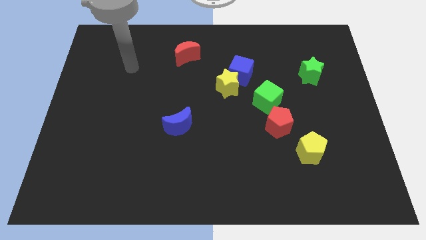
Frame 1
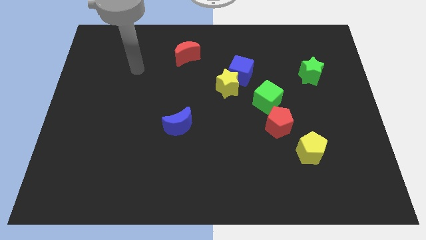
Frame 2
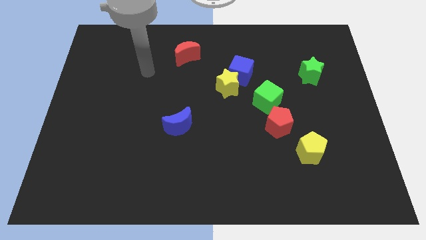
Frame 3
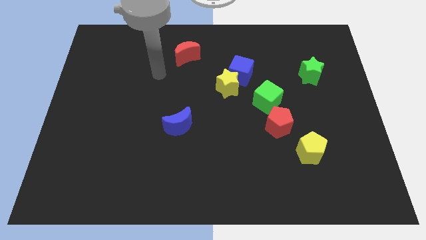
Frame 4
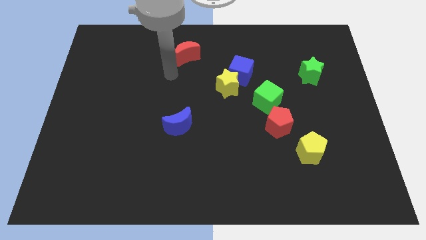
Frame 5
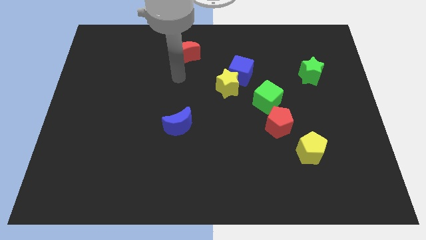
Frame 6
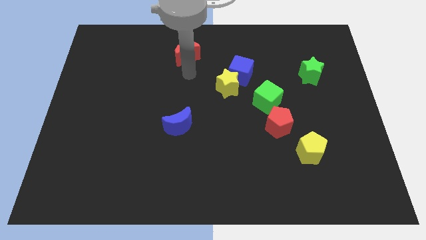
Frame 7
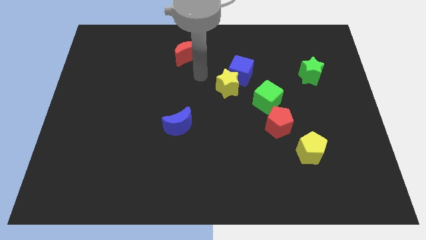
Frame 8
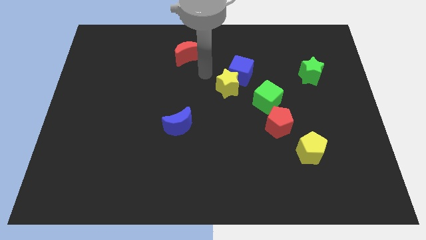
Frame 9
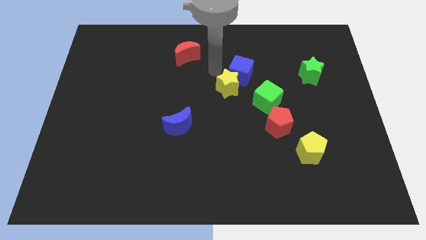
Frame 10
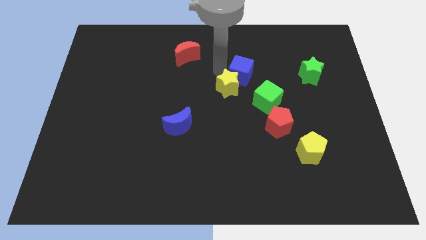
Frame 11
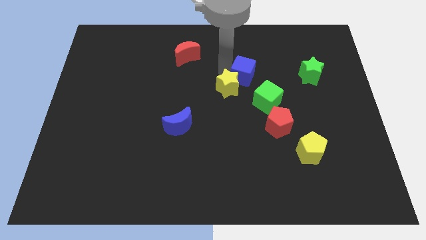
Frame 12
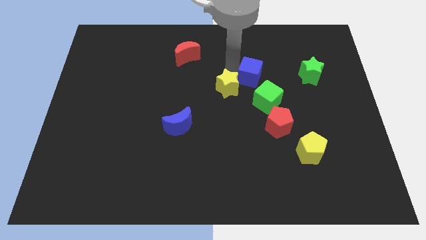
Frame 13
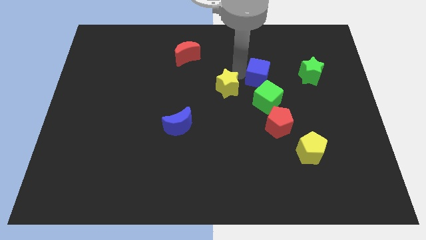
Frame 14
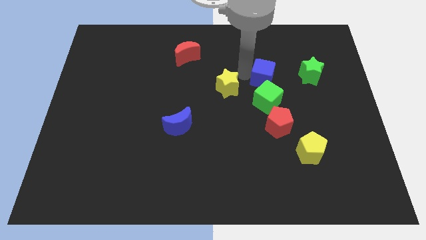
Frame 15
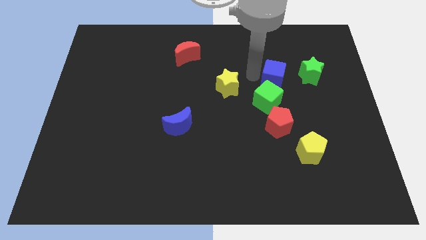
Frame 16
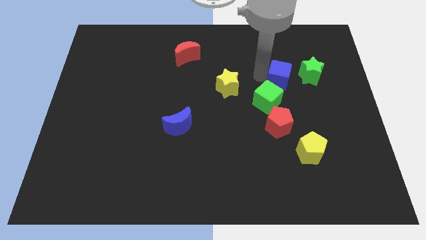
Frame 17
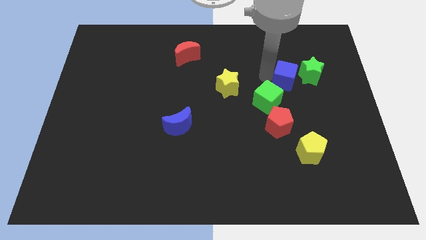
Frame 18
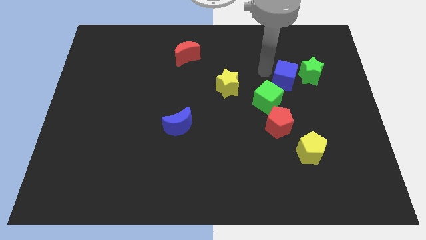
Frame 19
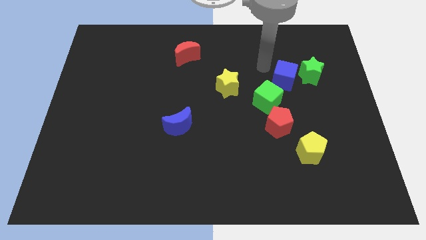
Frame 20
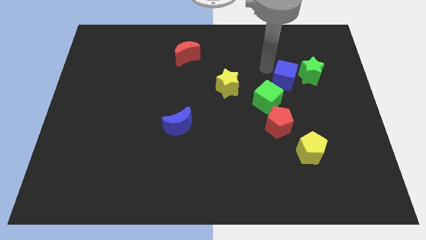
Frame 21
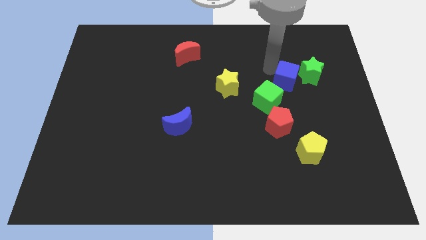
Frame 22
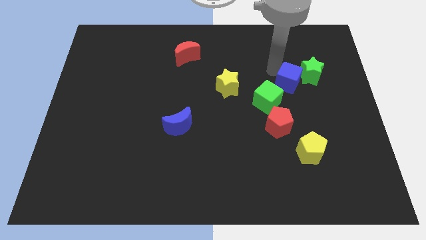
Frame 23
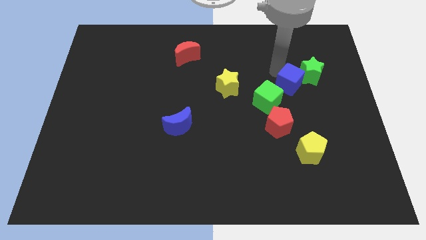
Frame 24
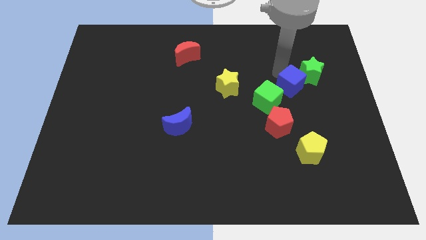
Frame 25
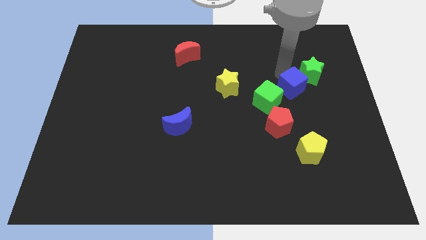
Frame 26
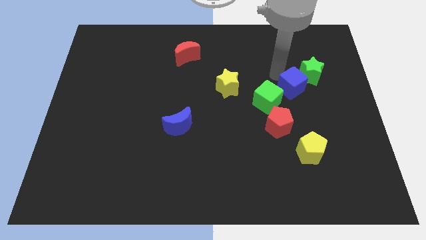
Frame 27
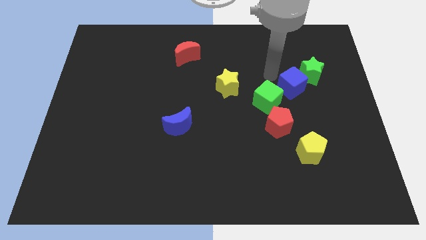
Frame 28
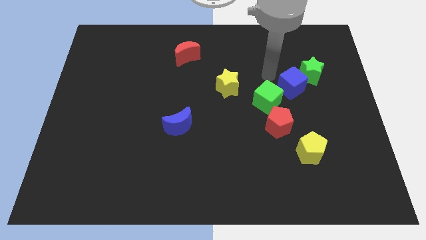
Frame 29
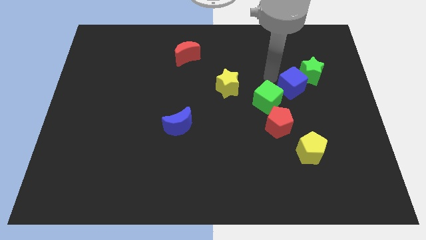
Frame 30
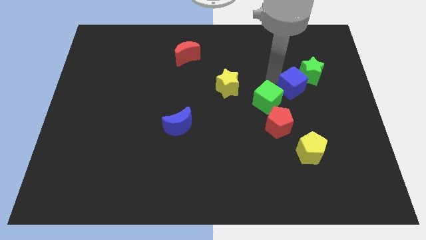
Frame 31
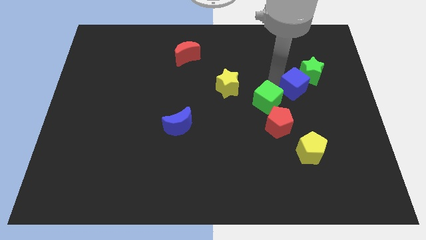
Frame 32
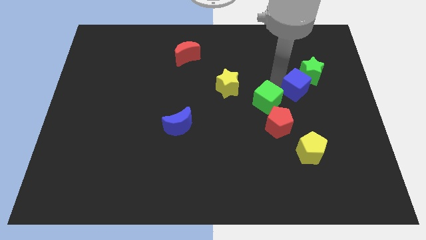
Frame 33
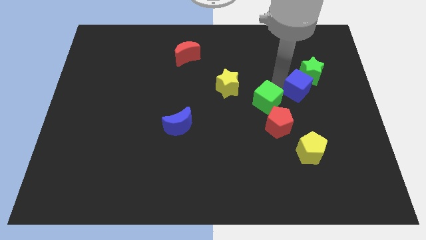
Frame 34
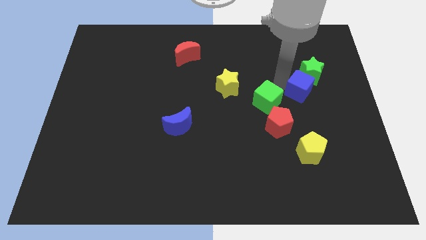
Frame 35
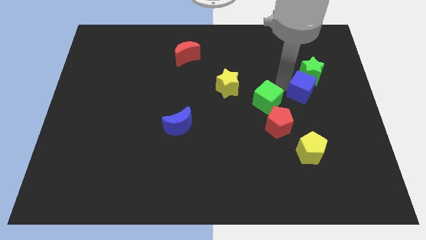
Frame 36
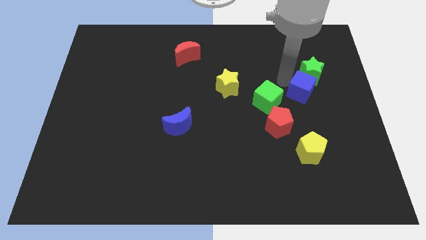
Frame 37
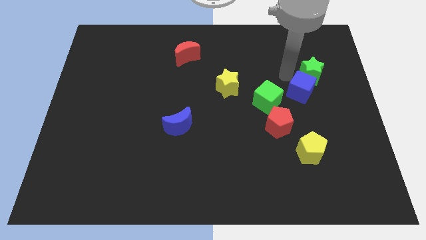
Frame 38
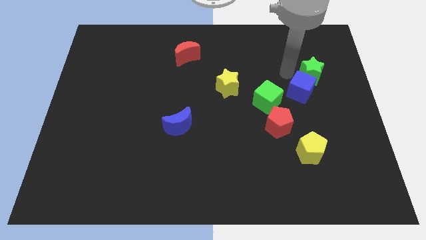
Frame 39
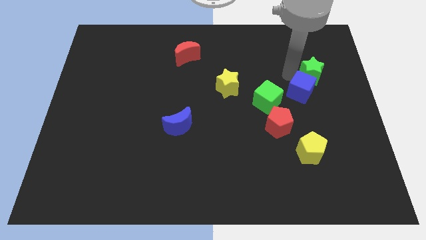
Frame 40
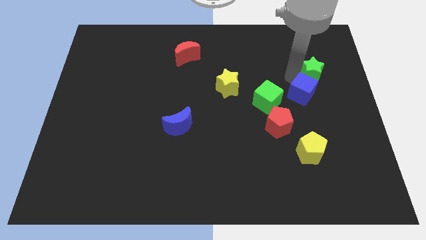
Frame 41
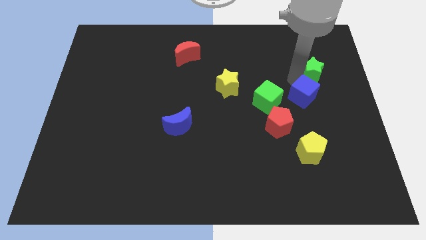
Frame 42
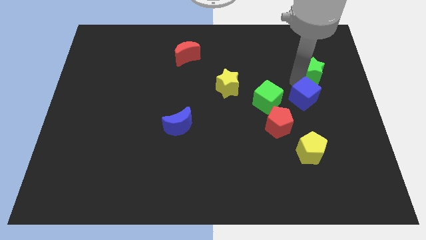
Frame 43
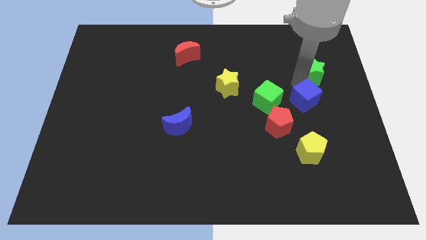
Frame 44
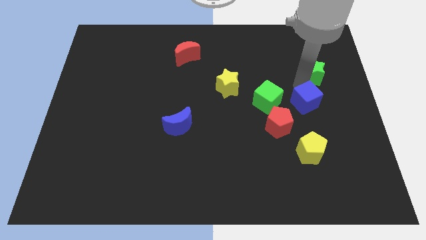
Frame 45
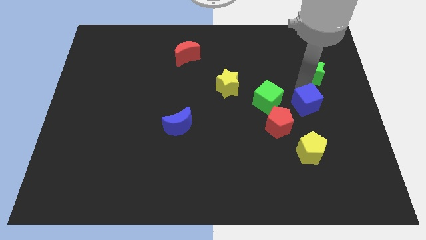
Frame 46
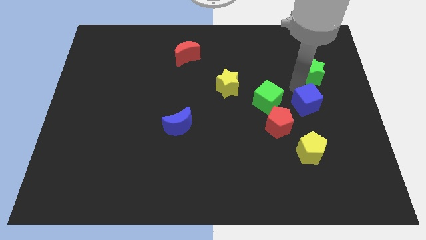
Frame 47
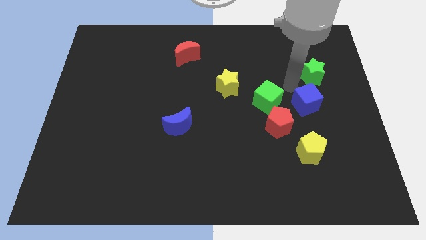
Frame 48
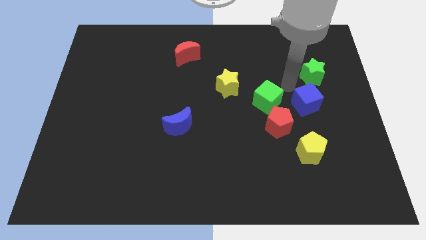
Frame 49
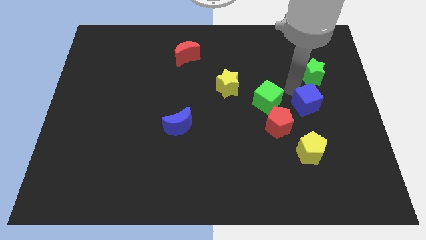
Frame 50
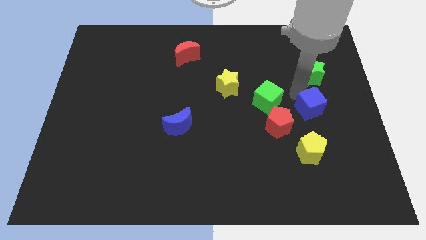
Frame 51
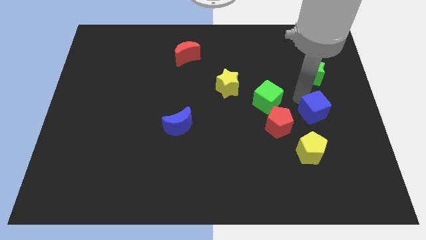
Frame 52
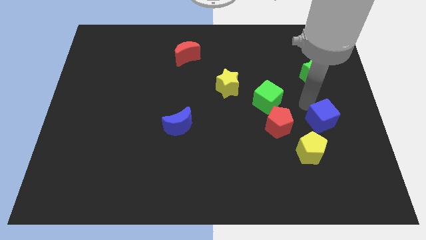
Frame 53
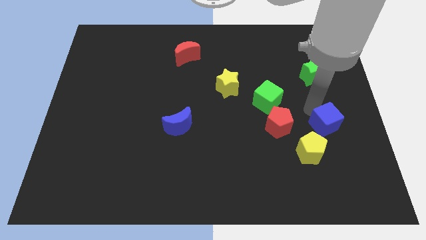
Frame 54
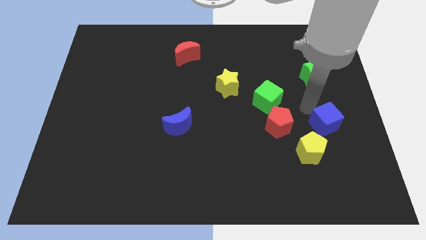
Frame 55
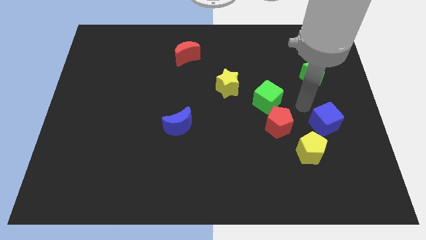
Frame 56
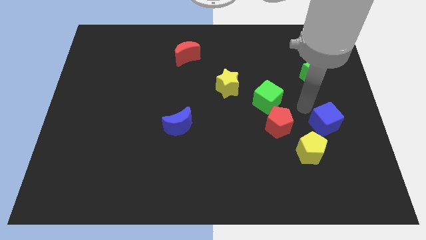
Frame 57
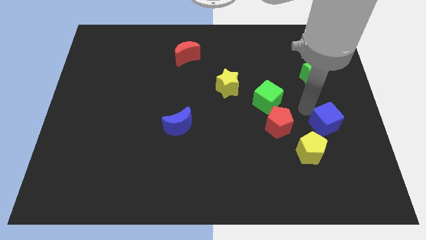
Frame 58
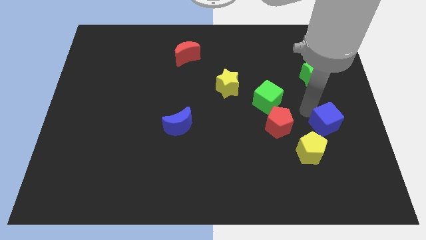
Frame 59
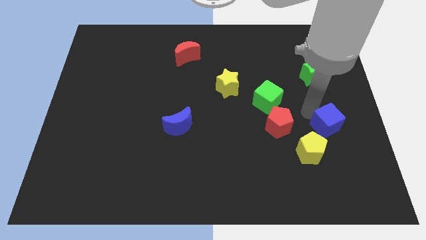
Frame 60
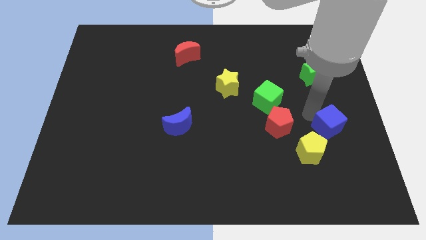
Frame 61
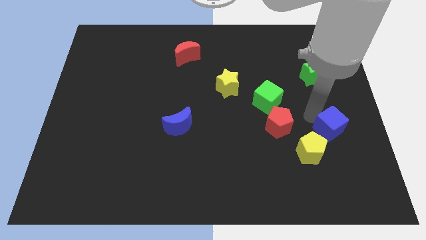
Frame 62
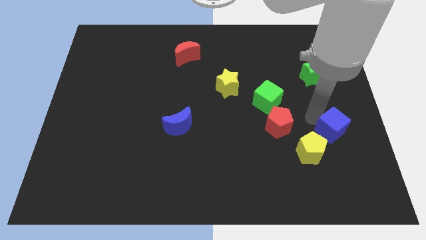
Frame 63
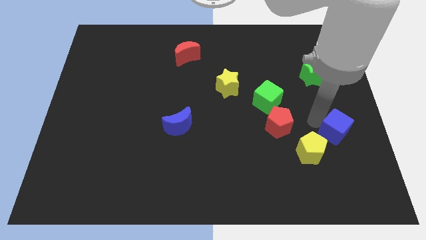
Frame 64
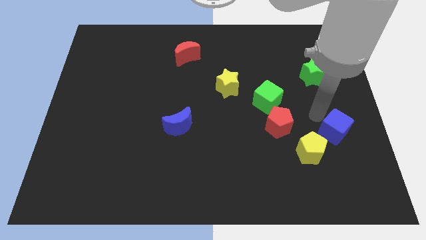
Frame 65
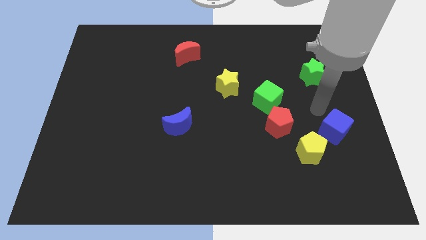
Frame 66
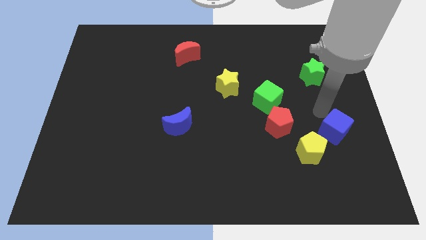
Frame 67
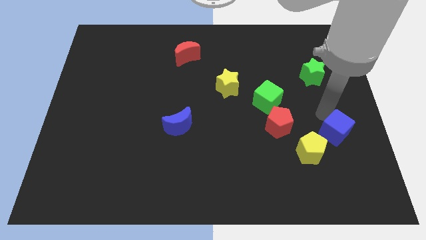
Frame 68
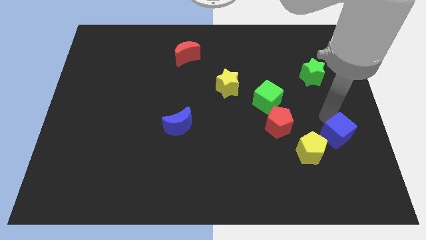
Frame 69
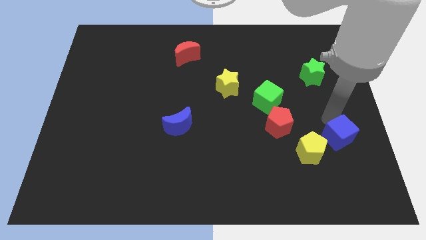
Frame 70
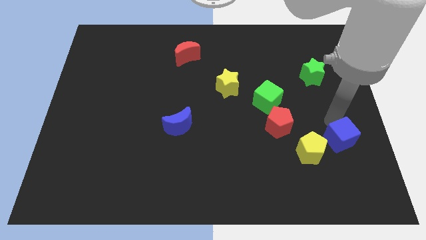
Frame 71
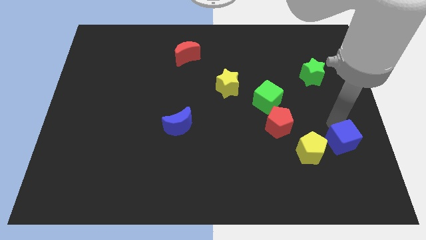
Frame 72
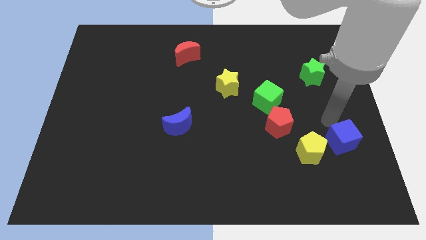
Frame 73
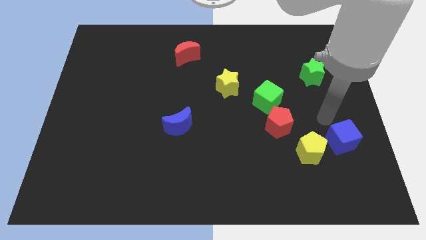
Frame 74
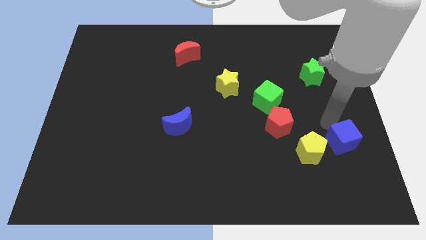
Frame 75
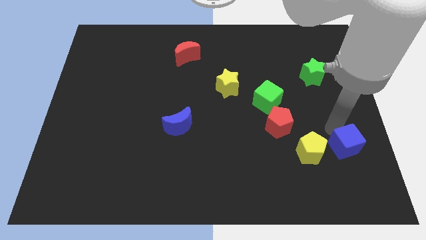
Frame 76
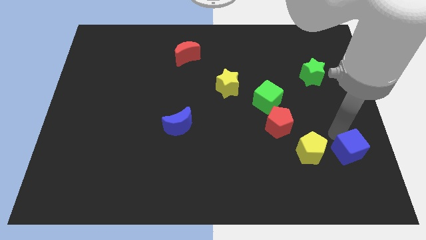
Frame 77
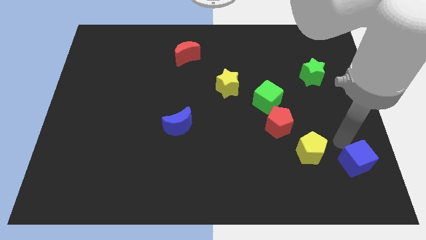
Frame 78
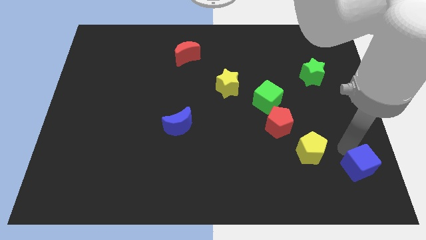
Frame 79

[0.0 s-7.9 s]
put the blue cube to the bottom right of the board
